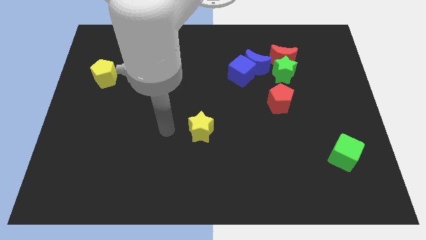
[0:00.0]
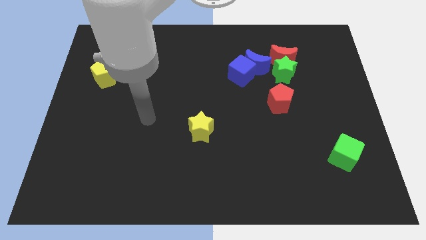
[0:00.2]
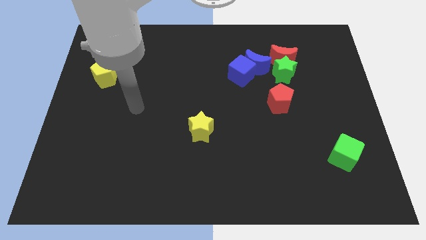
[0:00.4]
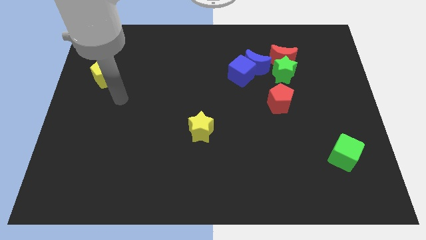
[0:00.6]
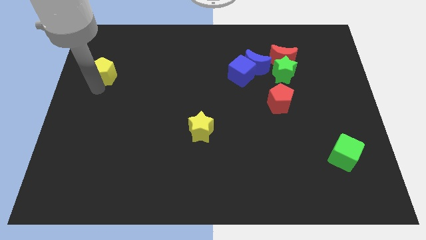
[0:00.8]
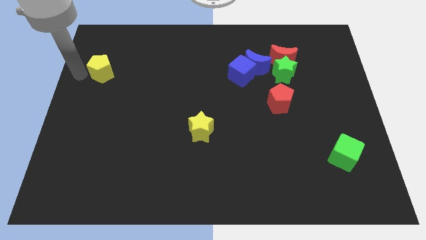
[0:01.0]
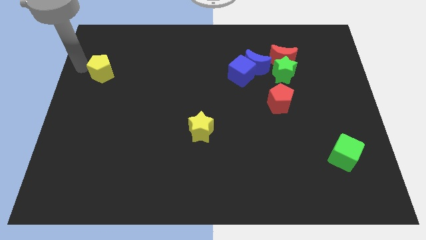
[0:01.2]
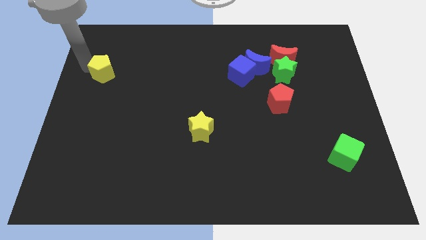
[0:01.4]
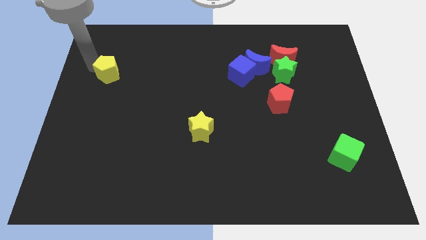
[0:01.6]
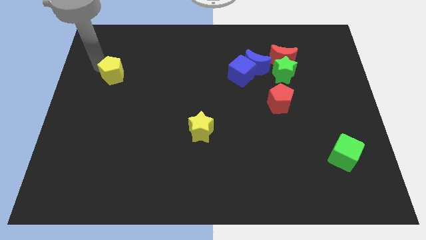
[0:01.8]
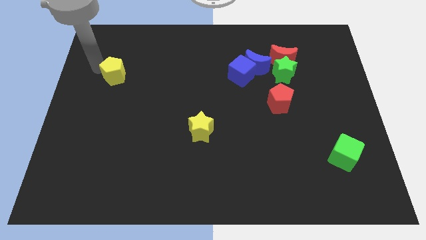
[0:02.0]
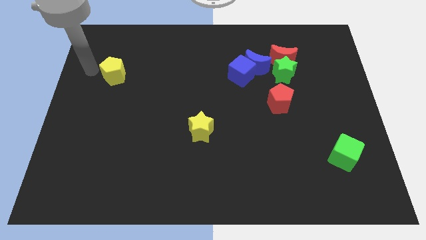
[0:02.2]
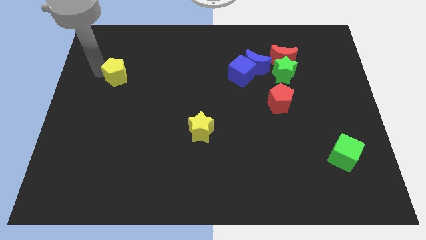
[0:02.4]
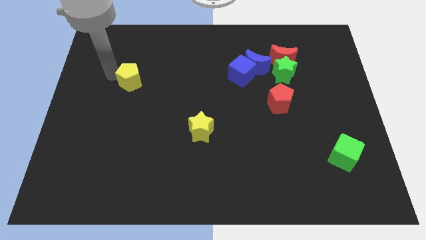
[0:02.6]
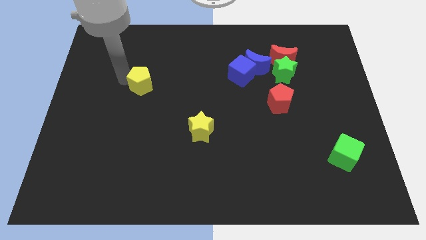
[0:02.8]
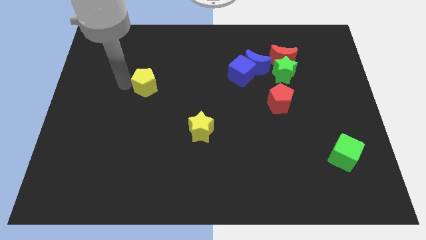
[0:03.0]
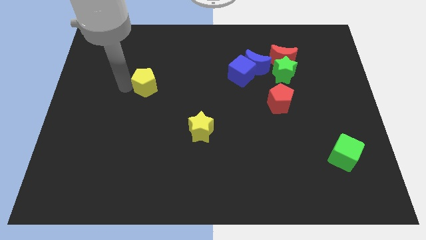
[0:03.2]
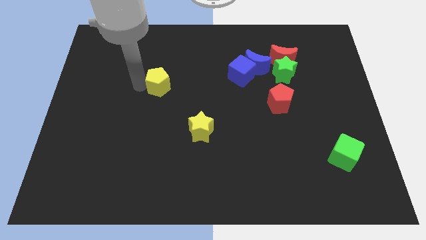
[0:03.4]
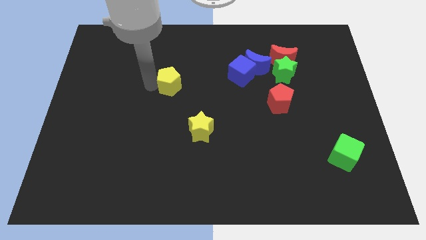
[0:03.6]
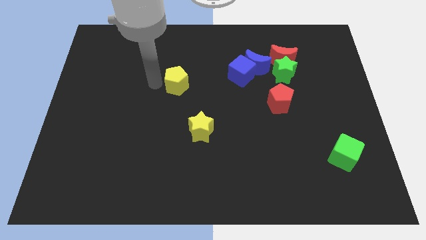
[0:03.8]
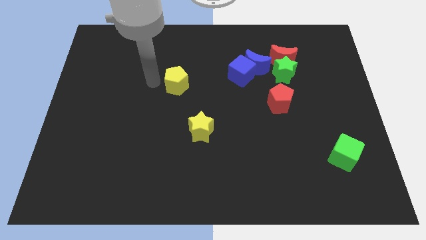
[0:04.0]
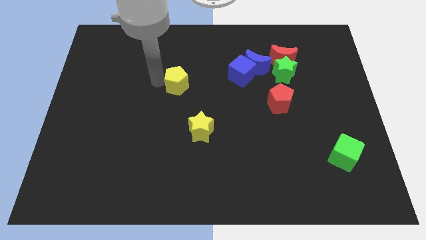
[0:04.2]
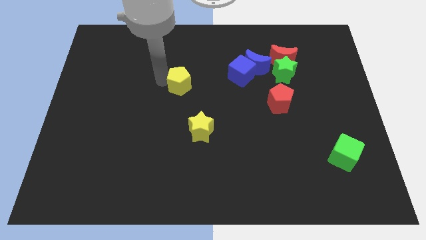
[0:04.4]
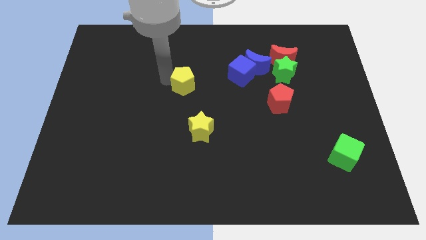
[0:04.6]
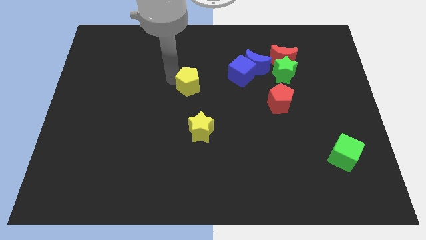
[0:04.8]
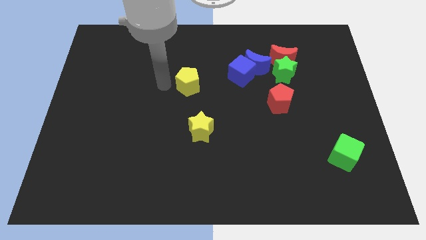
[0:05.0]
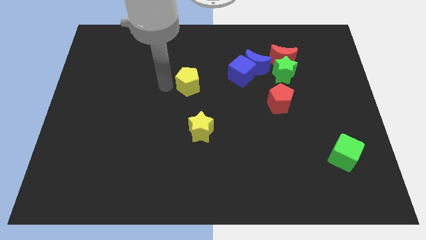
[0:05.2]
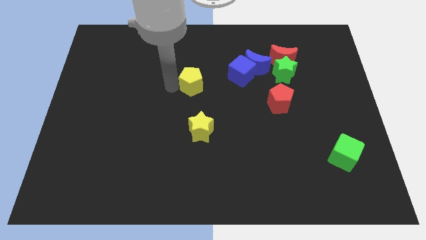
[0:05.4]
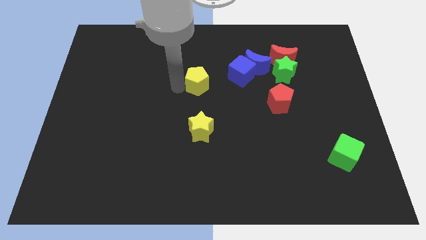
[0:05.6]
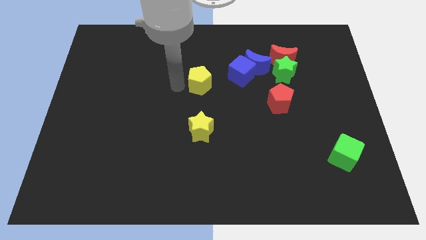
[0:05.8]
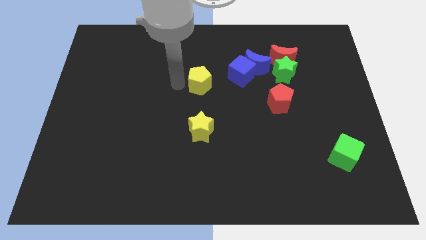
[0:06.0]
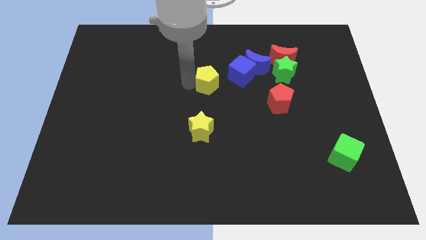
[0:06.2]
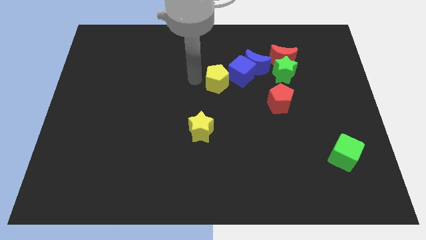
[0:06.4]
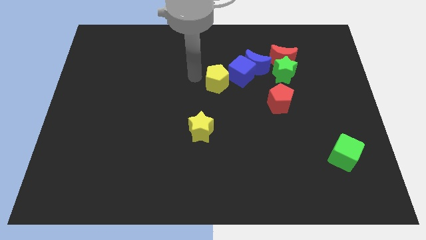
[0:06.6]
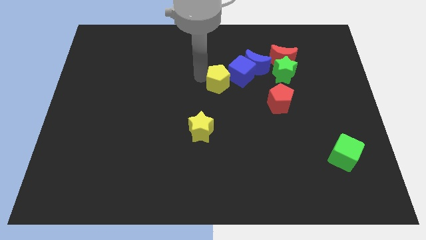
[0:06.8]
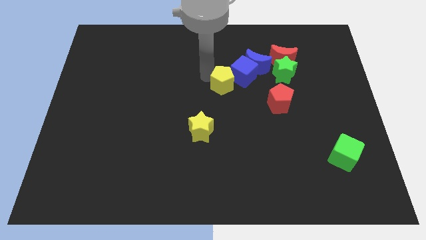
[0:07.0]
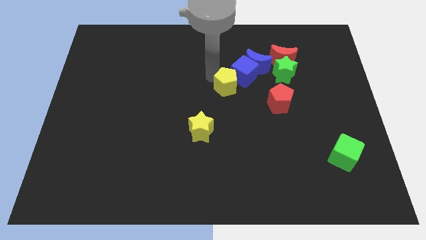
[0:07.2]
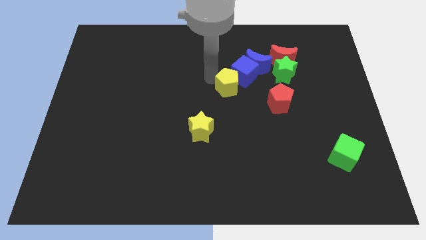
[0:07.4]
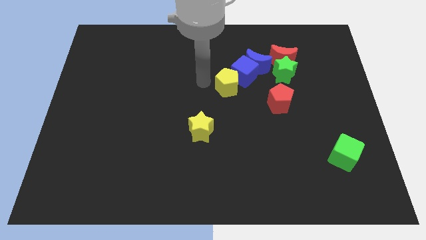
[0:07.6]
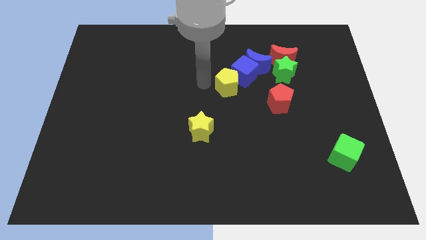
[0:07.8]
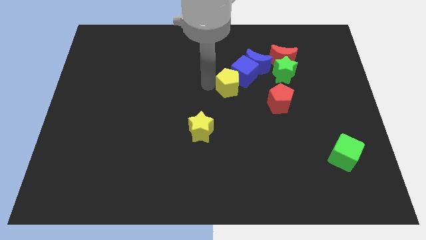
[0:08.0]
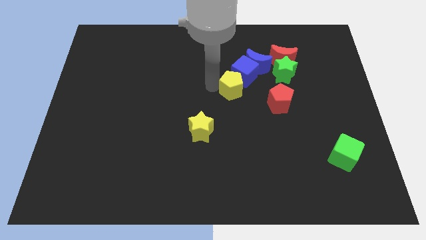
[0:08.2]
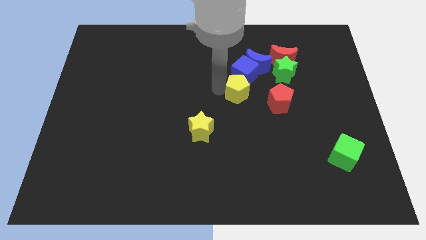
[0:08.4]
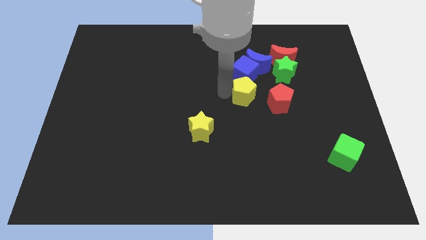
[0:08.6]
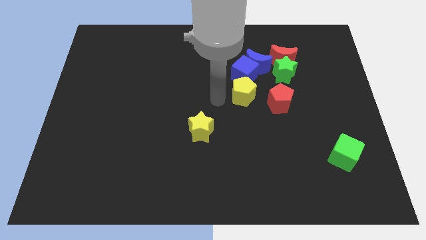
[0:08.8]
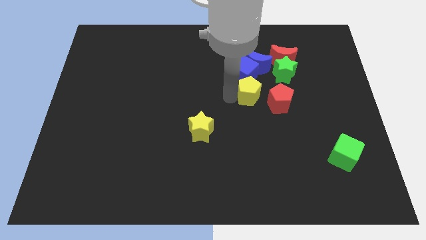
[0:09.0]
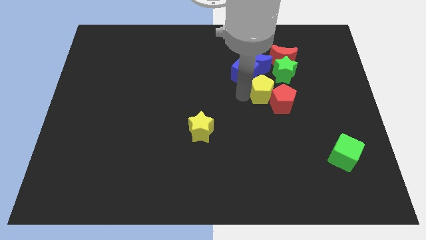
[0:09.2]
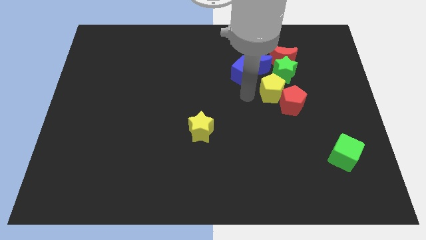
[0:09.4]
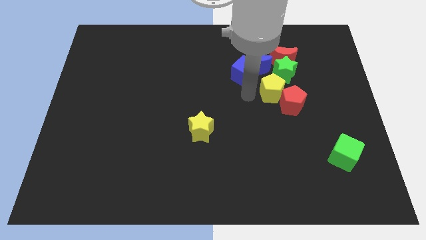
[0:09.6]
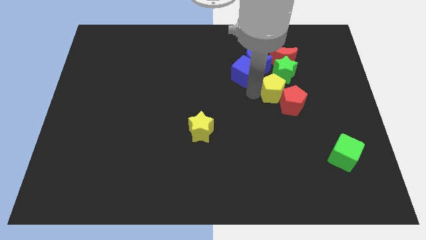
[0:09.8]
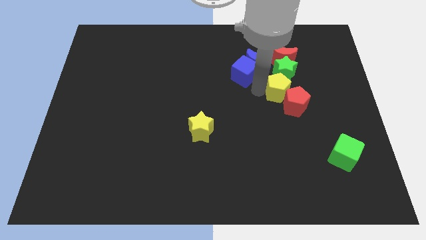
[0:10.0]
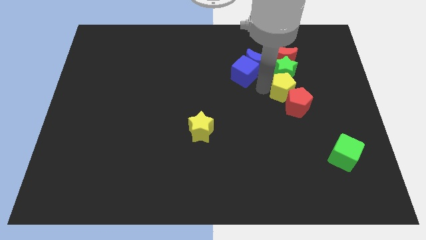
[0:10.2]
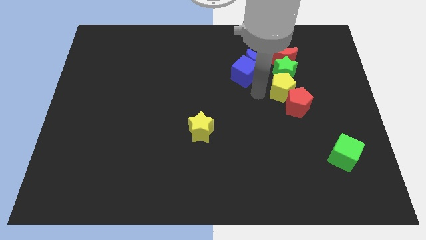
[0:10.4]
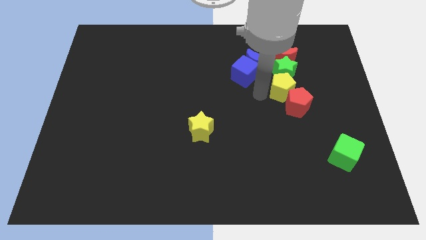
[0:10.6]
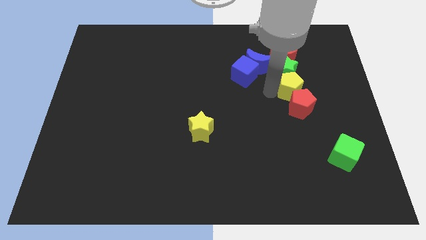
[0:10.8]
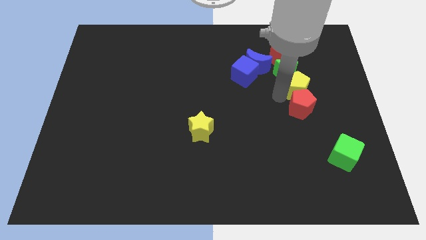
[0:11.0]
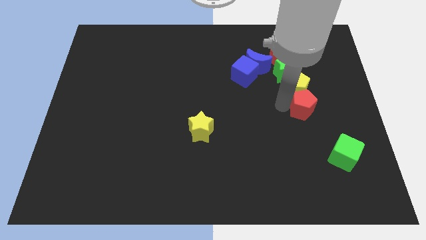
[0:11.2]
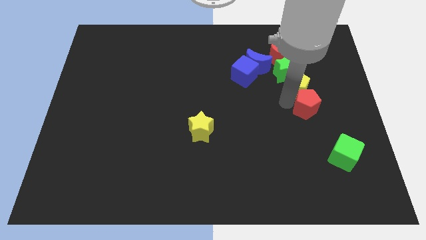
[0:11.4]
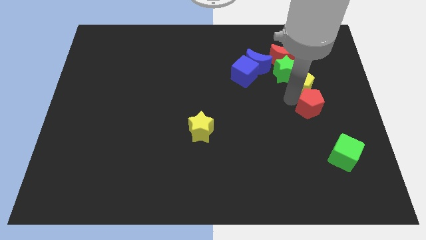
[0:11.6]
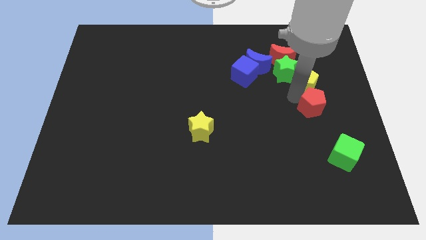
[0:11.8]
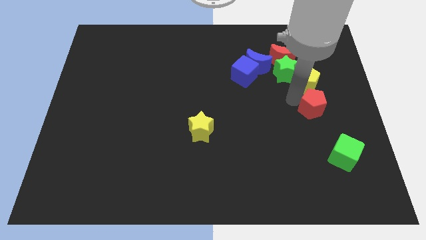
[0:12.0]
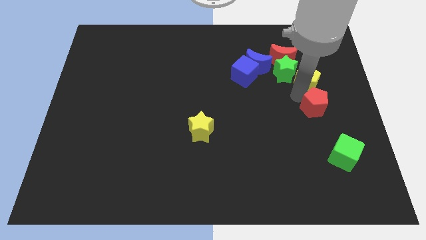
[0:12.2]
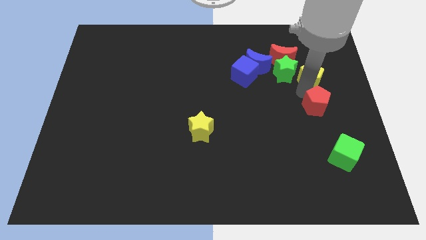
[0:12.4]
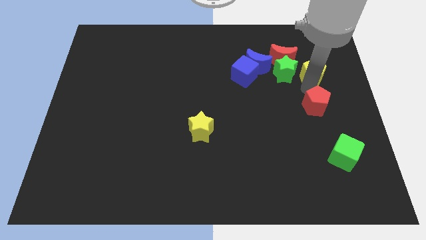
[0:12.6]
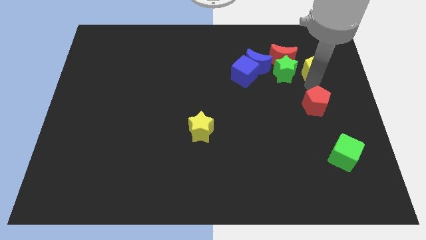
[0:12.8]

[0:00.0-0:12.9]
slide the yellow pentagon to the right of the red moon

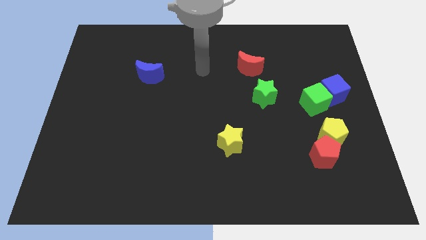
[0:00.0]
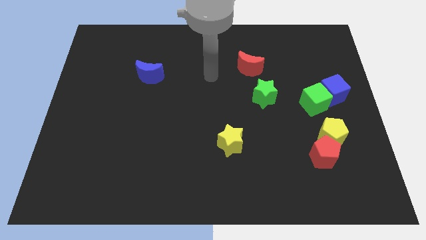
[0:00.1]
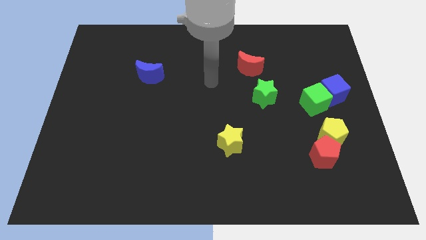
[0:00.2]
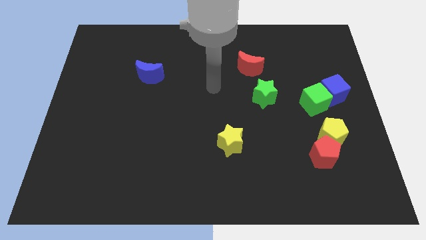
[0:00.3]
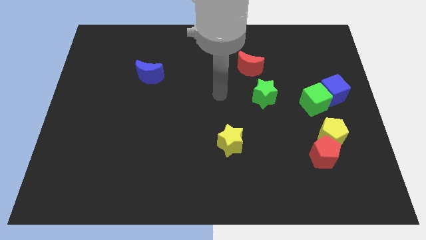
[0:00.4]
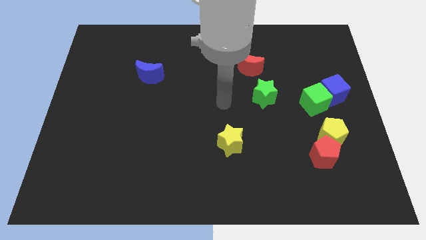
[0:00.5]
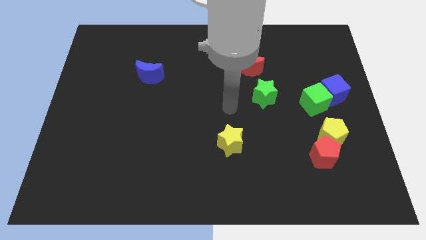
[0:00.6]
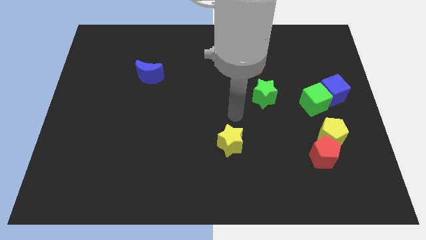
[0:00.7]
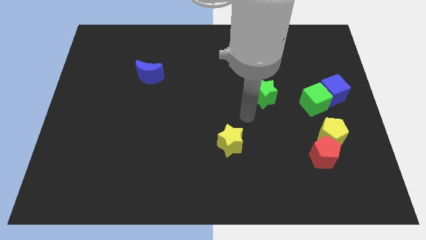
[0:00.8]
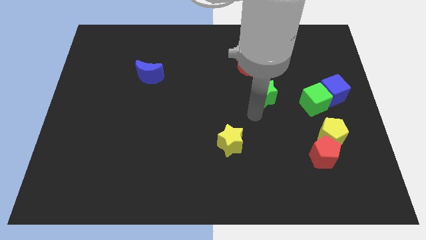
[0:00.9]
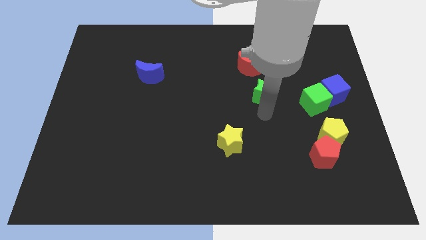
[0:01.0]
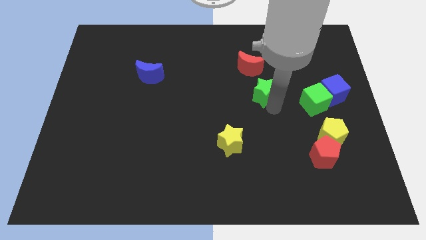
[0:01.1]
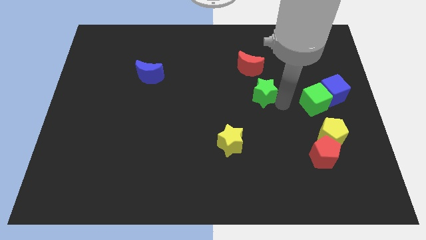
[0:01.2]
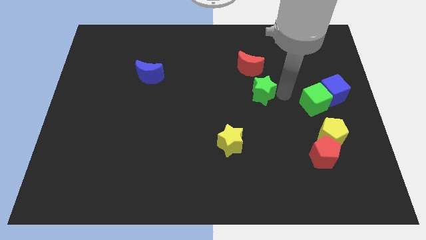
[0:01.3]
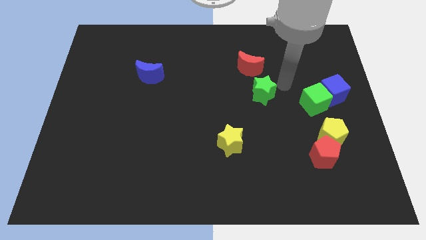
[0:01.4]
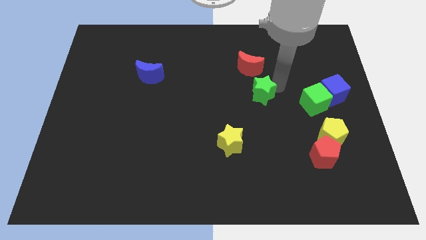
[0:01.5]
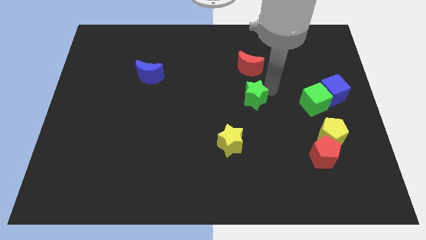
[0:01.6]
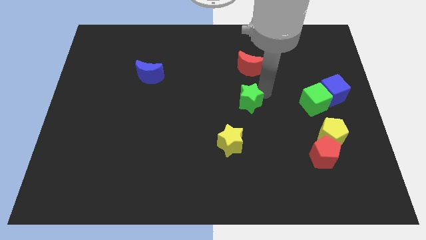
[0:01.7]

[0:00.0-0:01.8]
slide the green star to the top of the yellow star

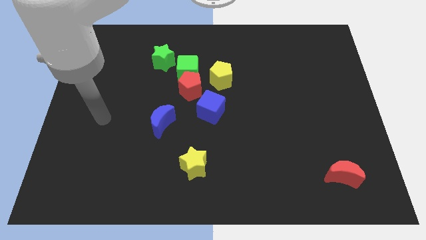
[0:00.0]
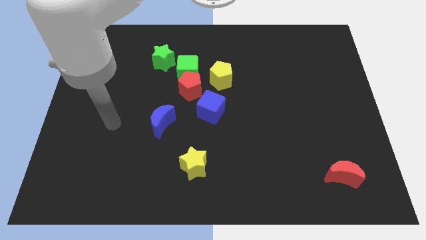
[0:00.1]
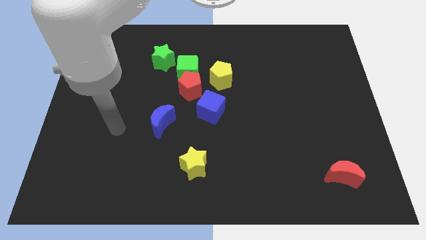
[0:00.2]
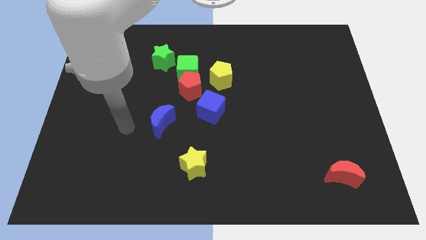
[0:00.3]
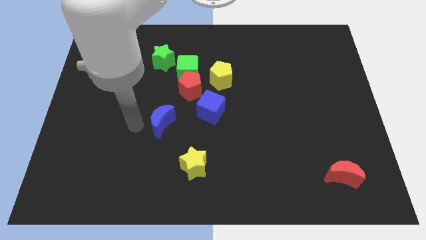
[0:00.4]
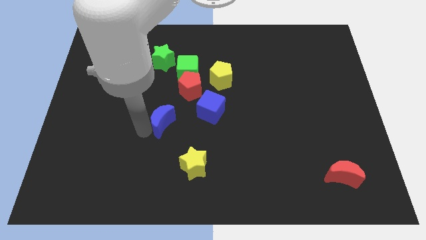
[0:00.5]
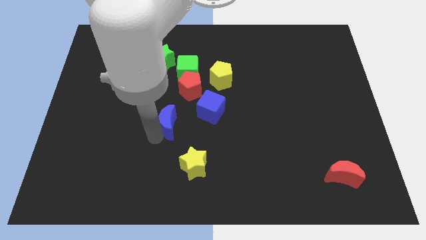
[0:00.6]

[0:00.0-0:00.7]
move the blue cube to the top right of the blue moon
